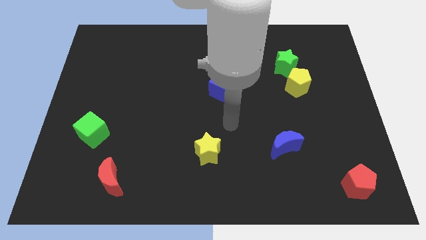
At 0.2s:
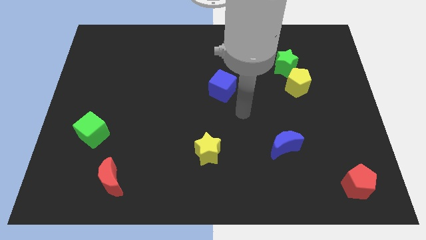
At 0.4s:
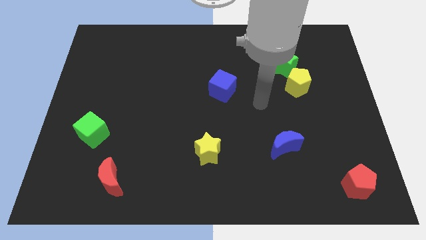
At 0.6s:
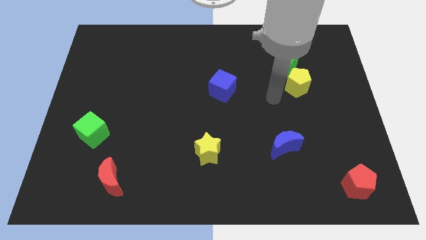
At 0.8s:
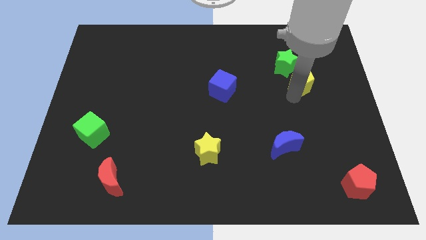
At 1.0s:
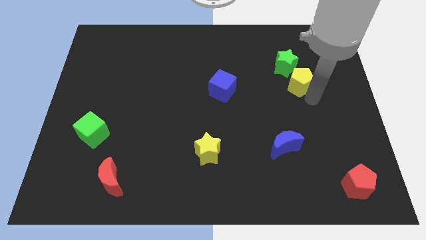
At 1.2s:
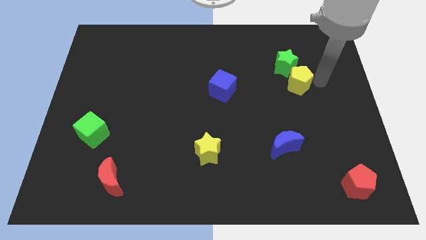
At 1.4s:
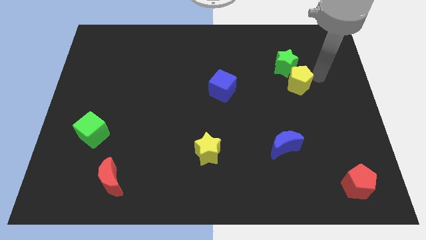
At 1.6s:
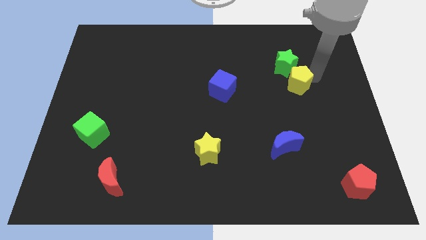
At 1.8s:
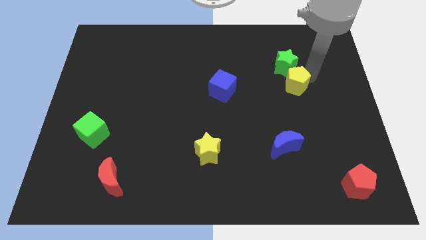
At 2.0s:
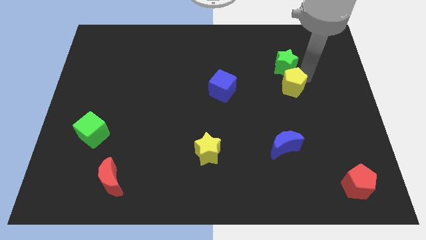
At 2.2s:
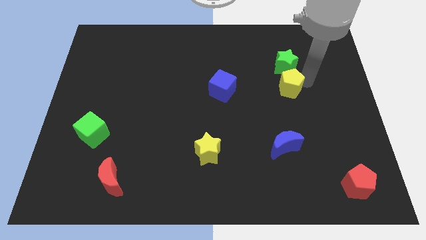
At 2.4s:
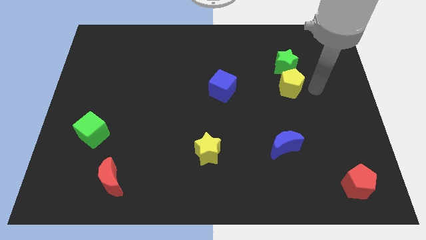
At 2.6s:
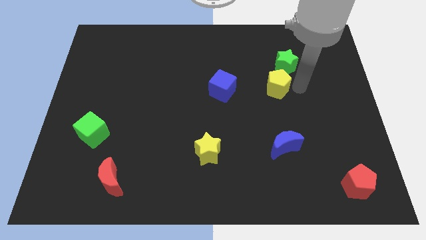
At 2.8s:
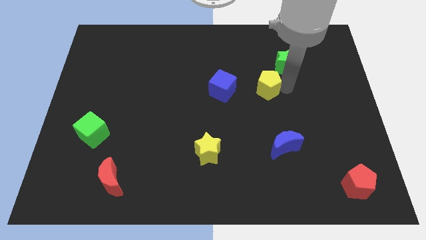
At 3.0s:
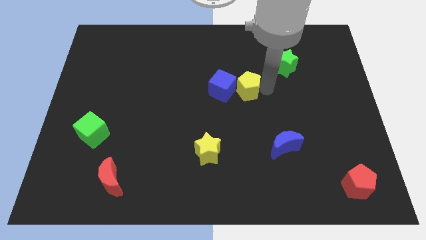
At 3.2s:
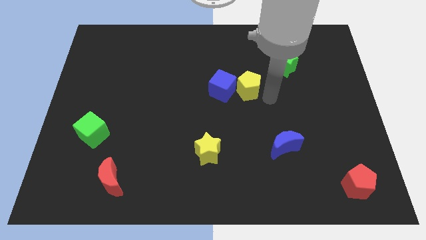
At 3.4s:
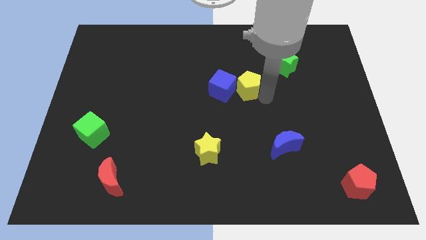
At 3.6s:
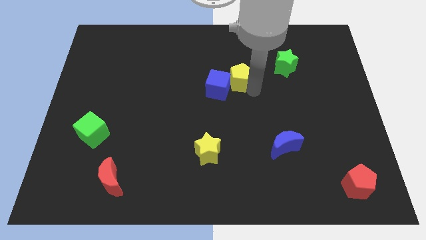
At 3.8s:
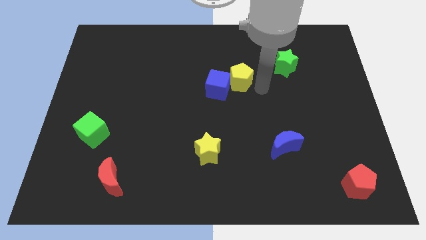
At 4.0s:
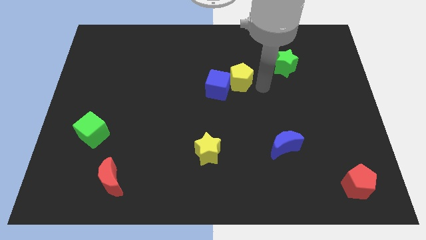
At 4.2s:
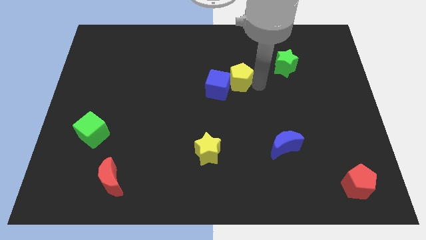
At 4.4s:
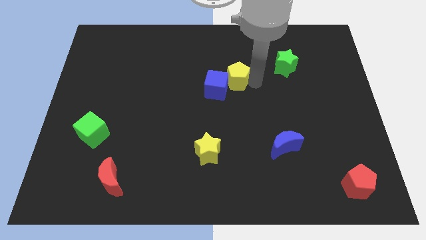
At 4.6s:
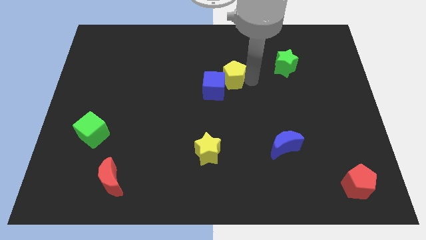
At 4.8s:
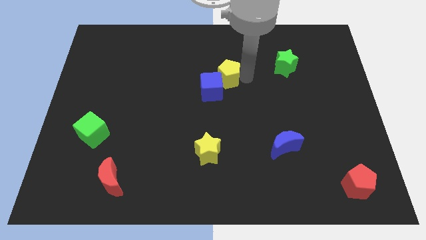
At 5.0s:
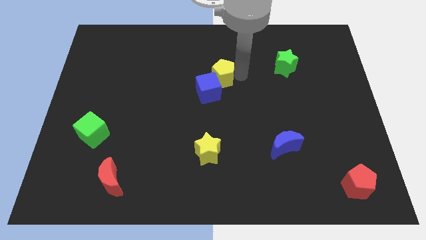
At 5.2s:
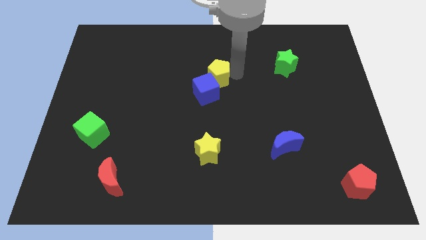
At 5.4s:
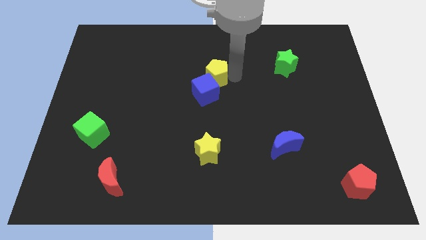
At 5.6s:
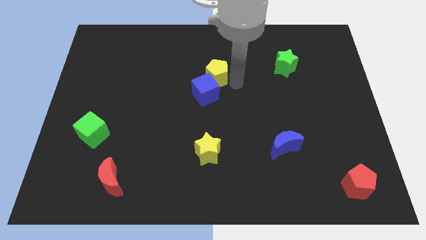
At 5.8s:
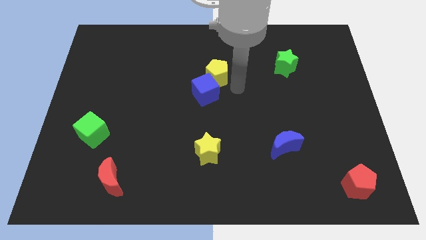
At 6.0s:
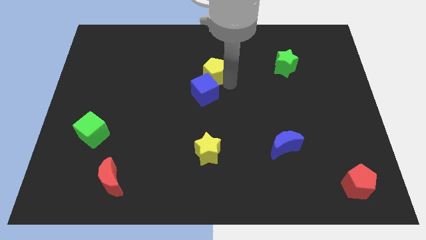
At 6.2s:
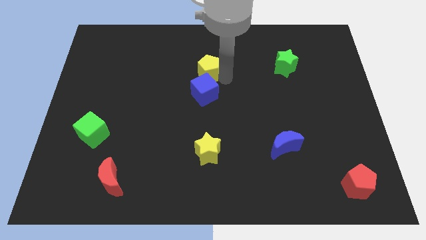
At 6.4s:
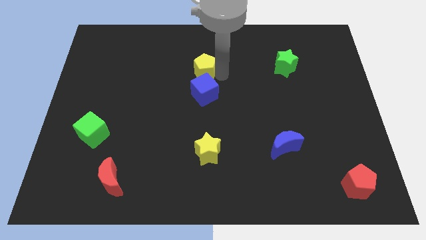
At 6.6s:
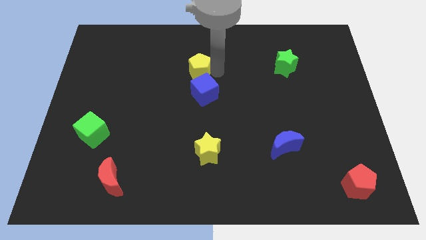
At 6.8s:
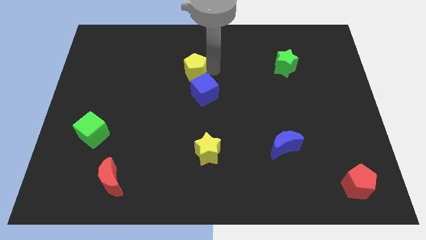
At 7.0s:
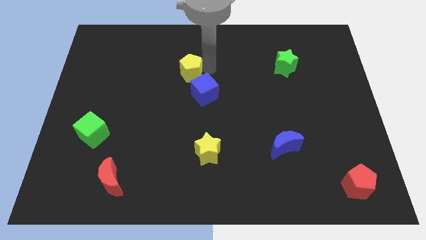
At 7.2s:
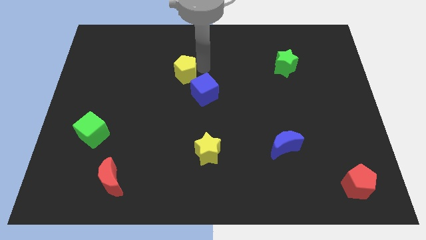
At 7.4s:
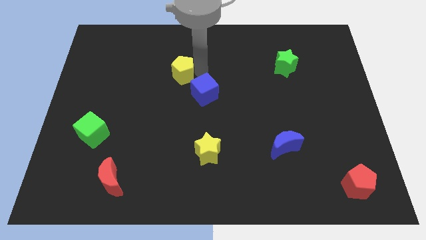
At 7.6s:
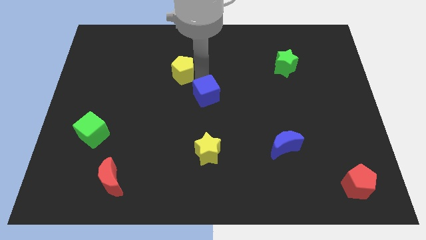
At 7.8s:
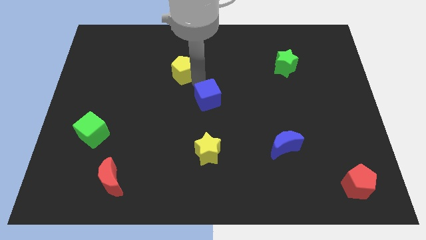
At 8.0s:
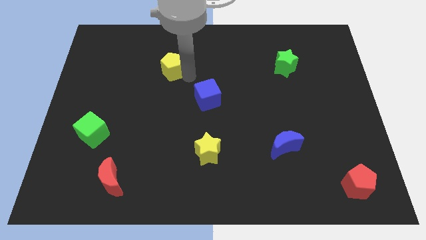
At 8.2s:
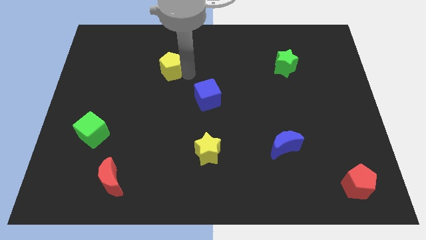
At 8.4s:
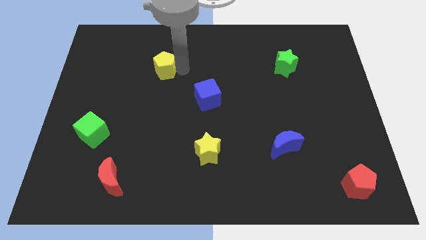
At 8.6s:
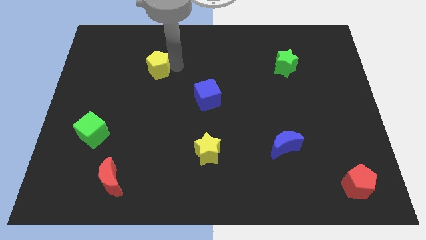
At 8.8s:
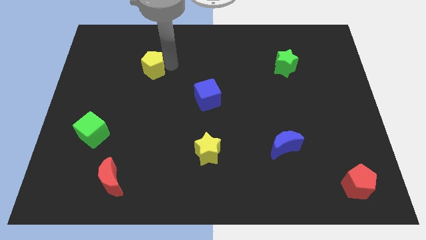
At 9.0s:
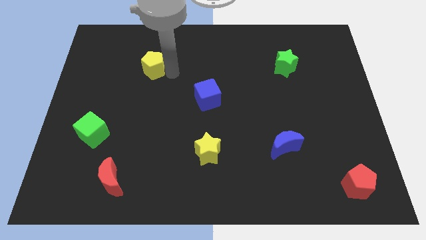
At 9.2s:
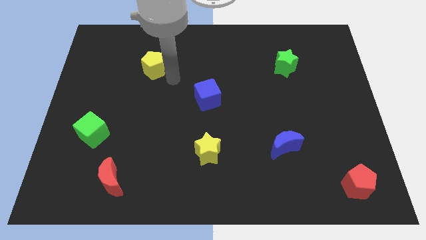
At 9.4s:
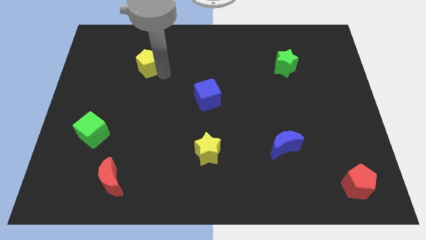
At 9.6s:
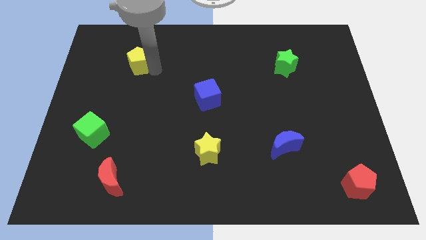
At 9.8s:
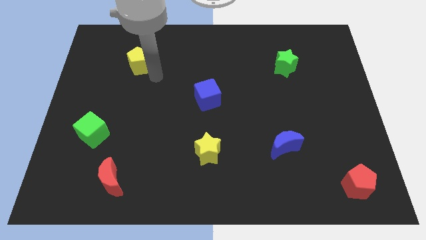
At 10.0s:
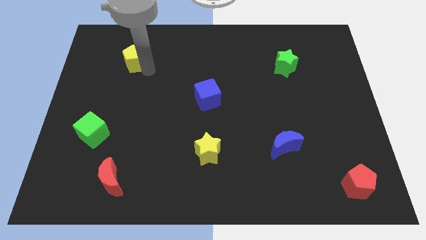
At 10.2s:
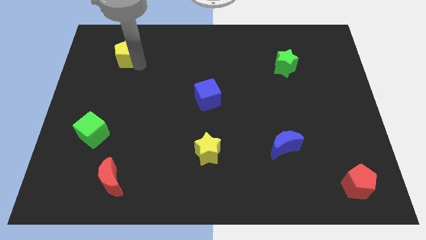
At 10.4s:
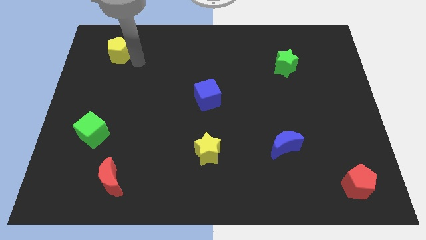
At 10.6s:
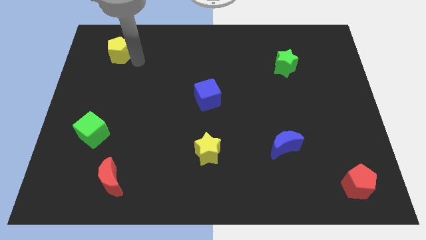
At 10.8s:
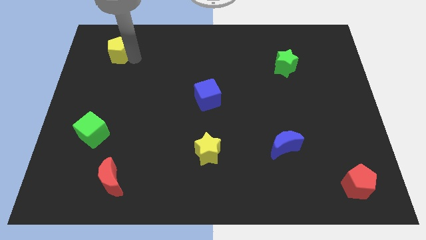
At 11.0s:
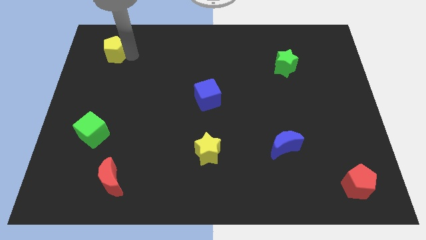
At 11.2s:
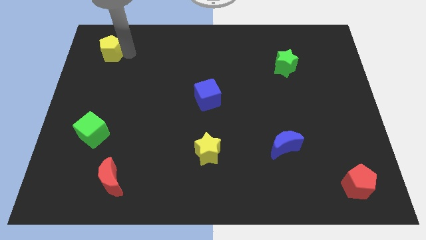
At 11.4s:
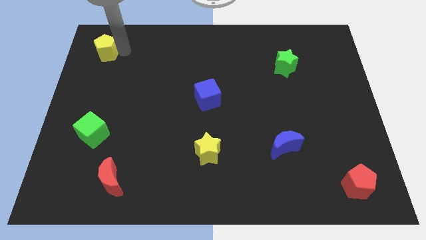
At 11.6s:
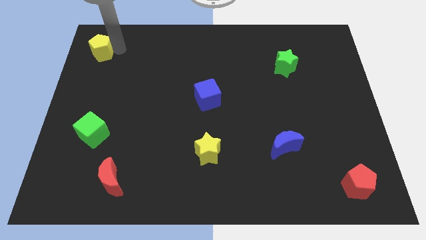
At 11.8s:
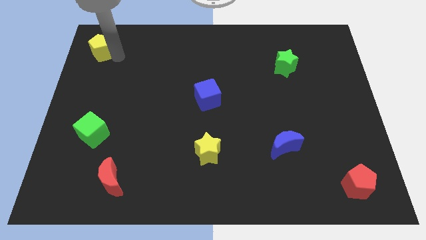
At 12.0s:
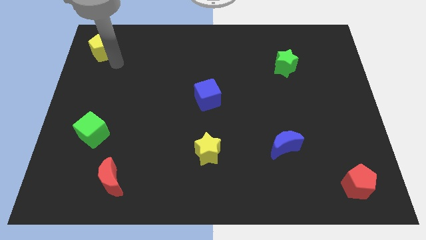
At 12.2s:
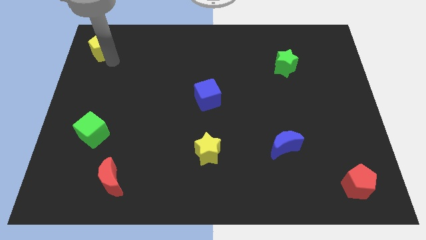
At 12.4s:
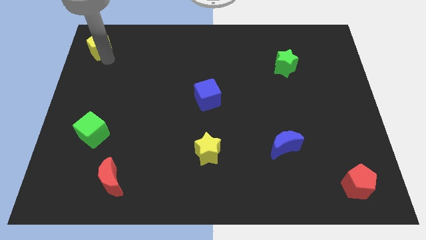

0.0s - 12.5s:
move the yellow pentagon to the top left corner
